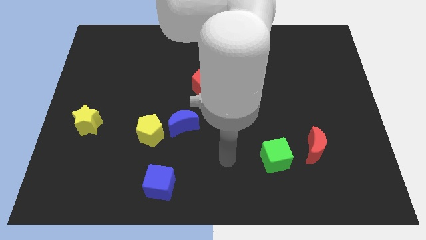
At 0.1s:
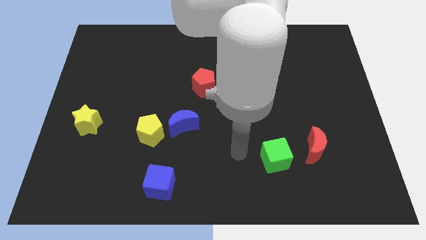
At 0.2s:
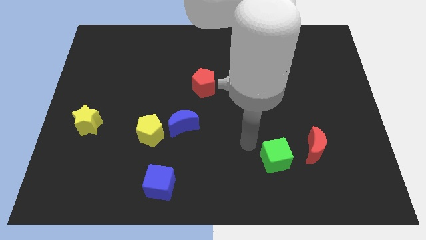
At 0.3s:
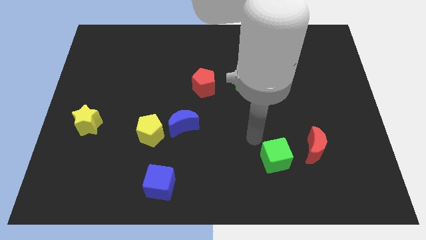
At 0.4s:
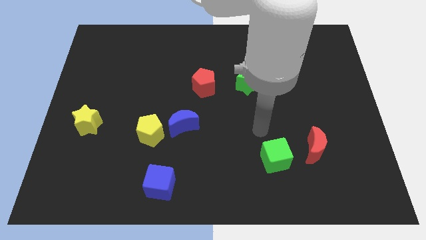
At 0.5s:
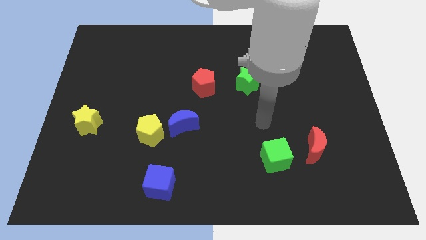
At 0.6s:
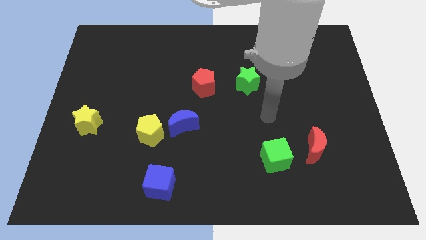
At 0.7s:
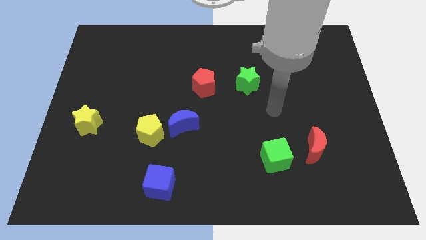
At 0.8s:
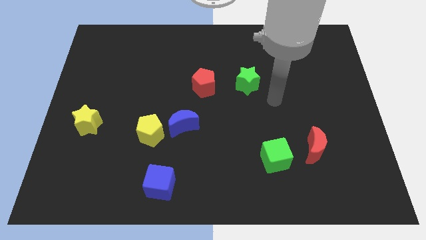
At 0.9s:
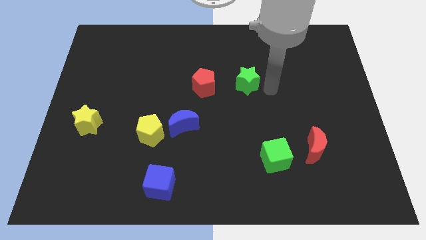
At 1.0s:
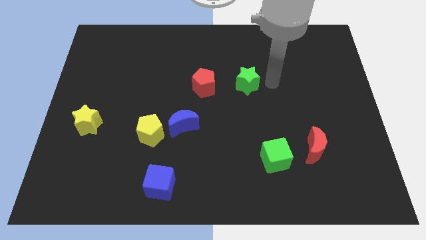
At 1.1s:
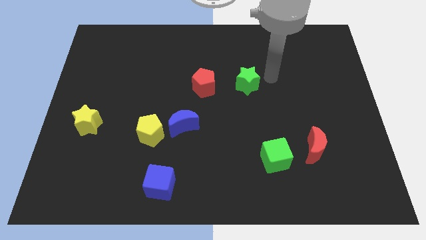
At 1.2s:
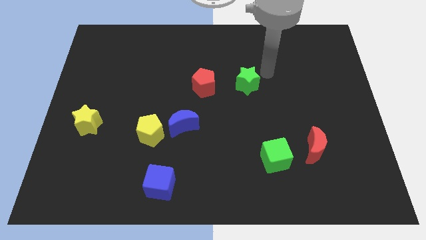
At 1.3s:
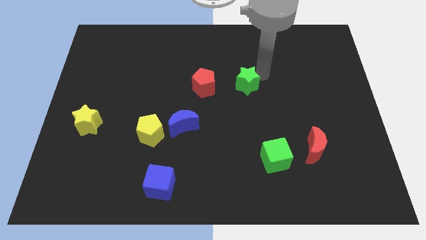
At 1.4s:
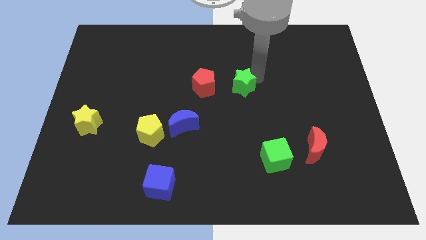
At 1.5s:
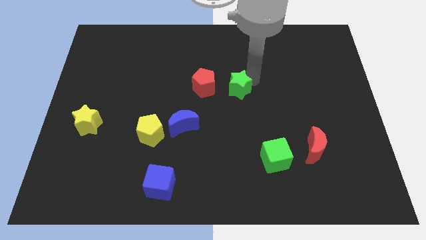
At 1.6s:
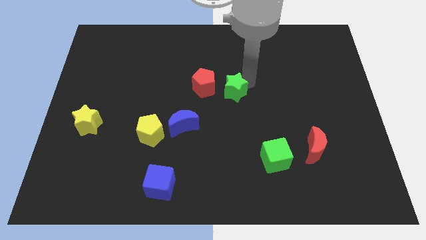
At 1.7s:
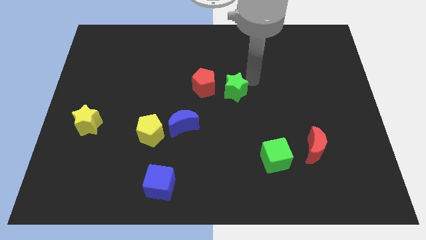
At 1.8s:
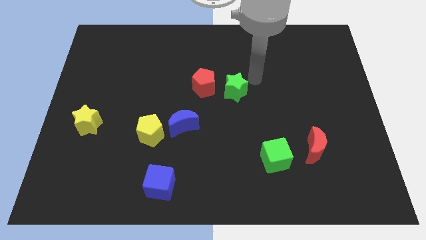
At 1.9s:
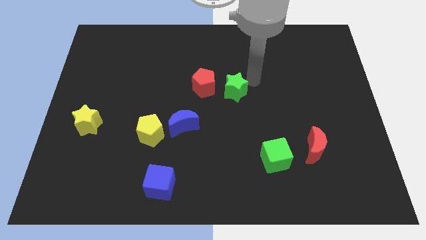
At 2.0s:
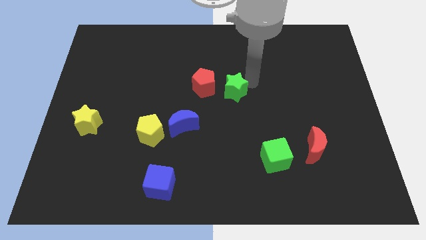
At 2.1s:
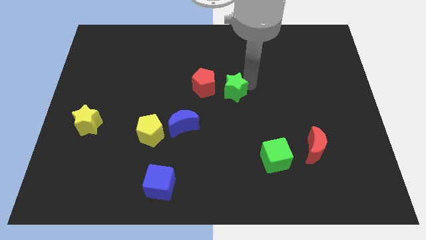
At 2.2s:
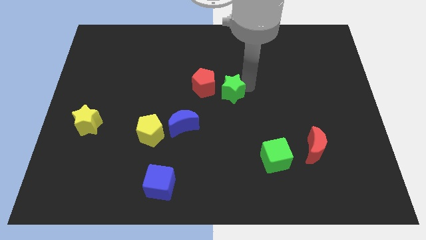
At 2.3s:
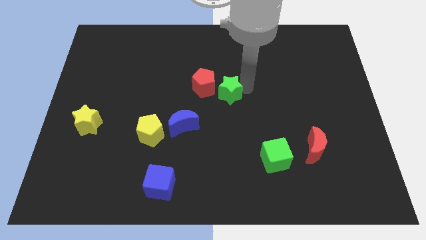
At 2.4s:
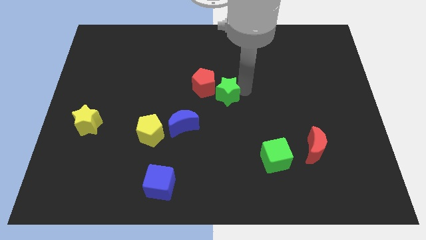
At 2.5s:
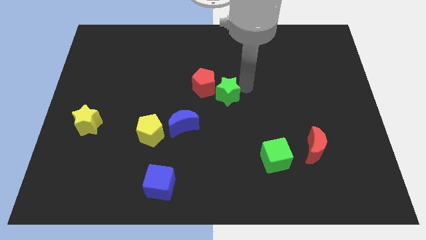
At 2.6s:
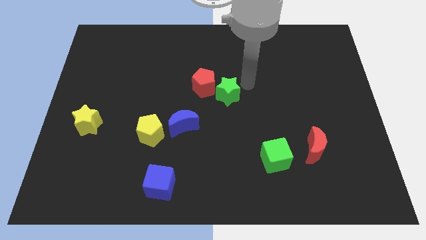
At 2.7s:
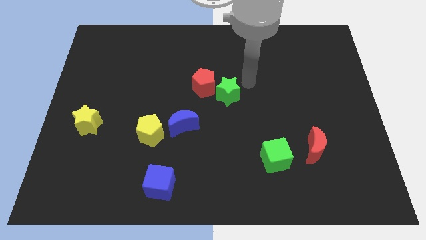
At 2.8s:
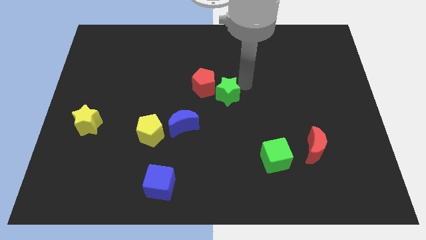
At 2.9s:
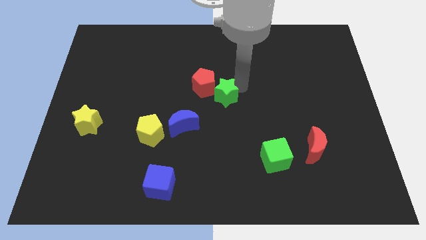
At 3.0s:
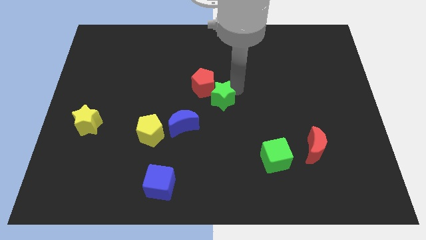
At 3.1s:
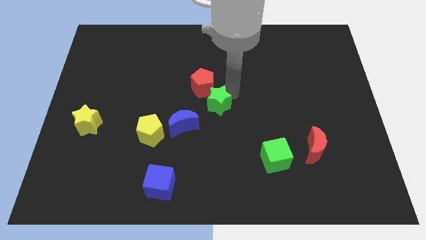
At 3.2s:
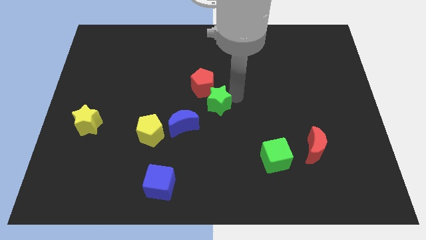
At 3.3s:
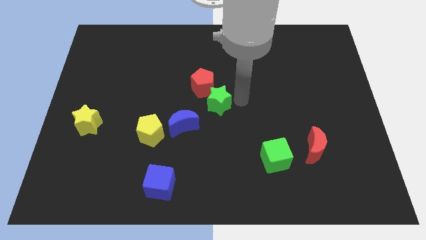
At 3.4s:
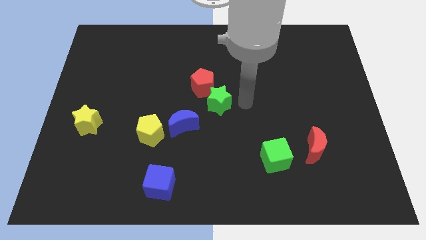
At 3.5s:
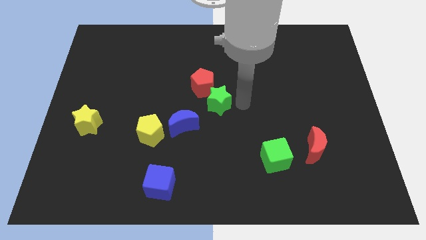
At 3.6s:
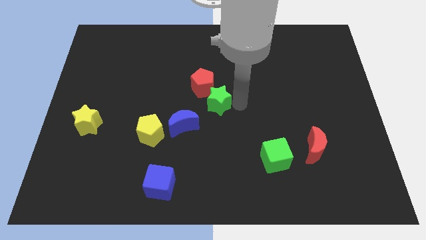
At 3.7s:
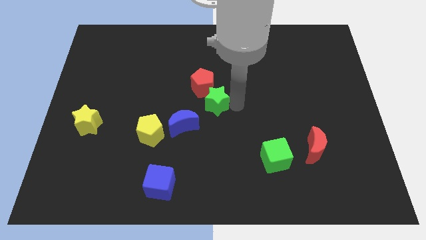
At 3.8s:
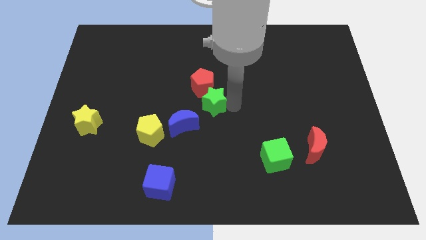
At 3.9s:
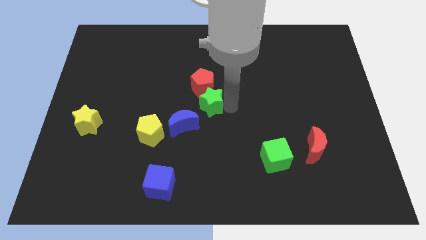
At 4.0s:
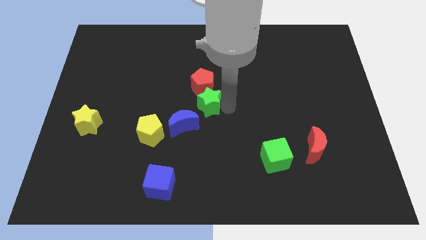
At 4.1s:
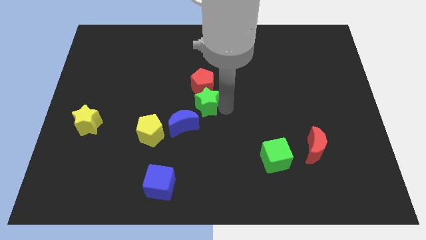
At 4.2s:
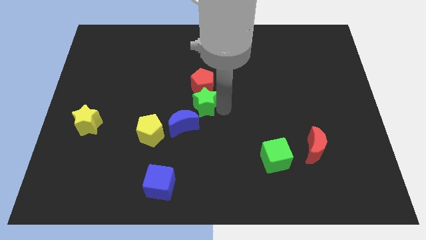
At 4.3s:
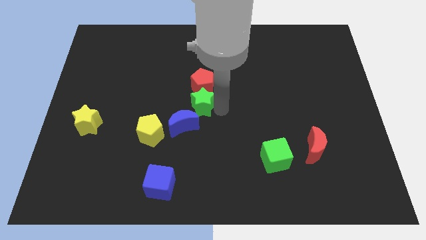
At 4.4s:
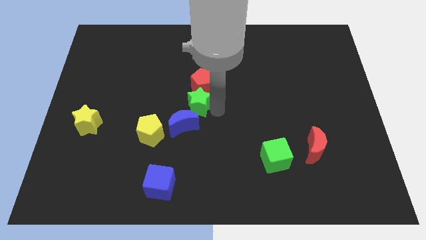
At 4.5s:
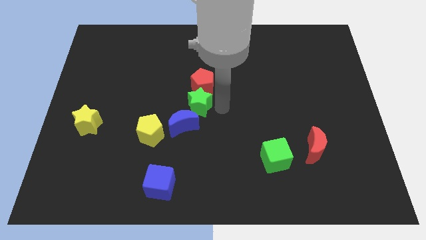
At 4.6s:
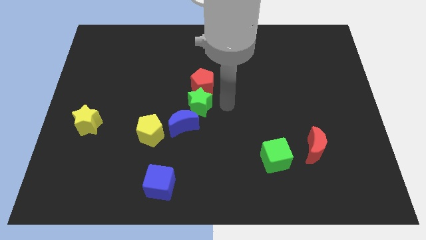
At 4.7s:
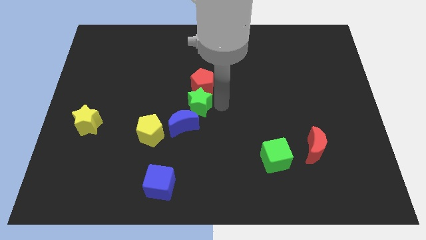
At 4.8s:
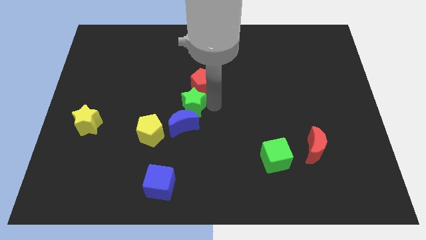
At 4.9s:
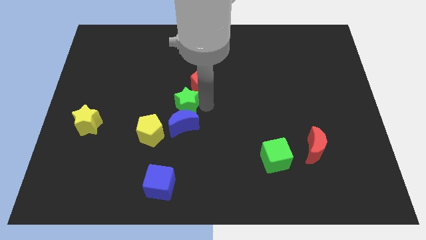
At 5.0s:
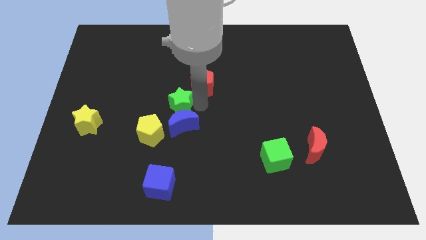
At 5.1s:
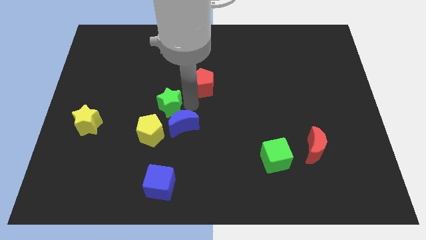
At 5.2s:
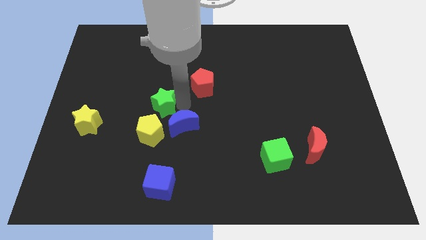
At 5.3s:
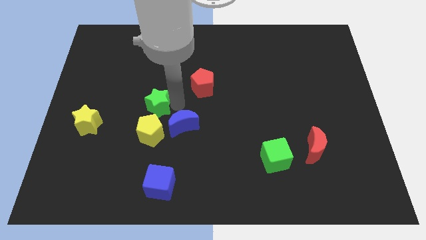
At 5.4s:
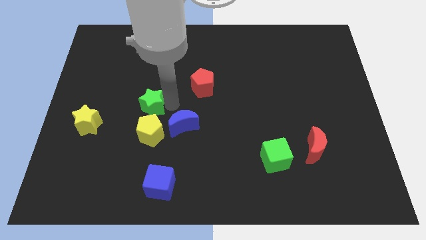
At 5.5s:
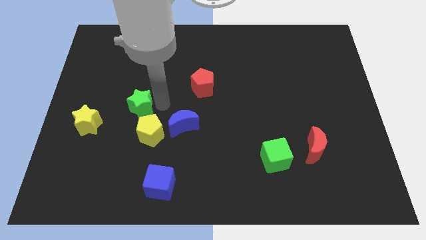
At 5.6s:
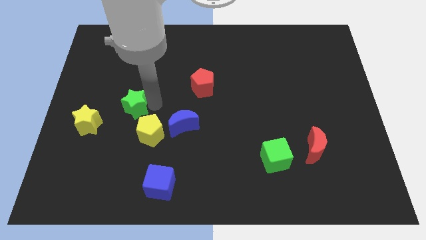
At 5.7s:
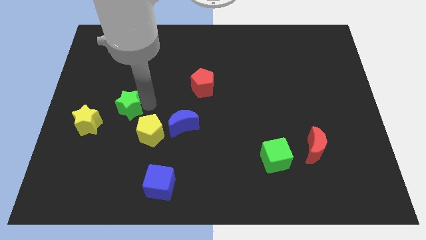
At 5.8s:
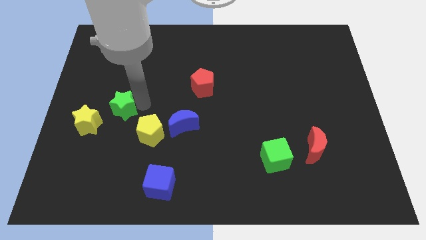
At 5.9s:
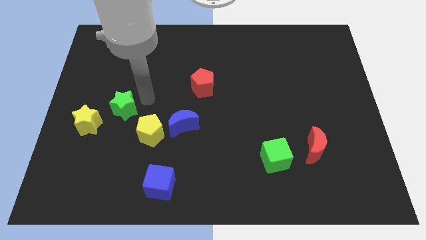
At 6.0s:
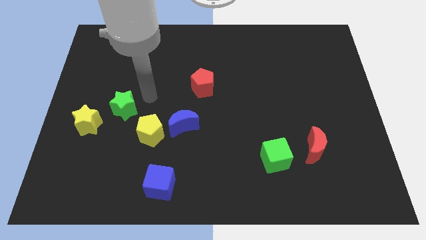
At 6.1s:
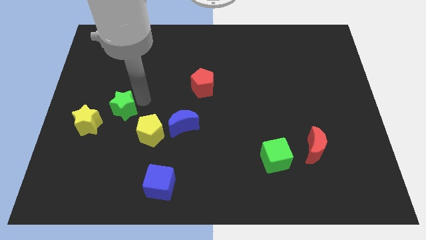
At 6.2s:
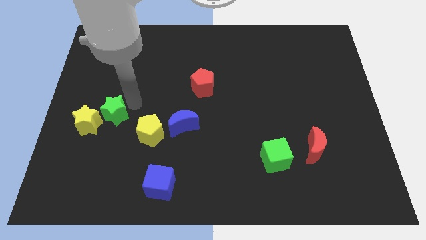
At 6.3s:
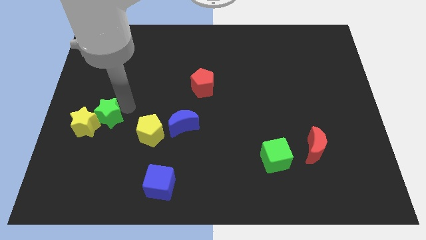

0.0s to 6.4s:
push the green star to the yellow star
